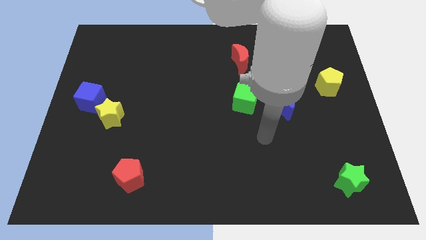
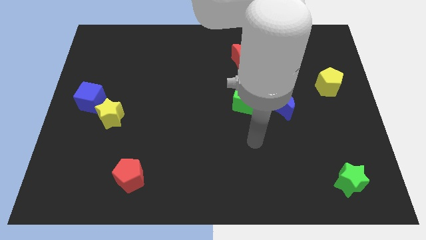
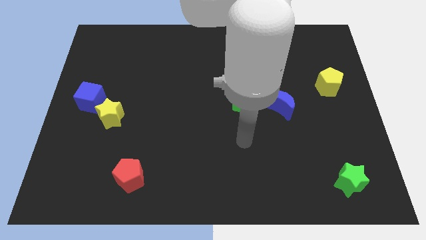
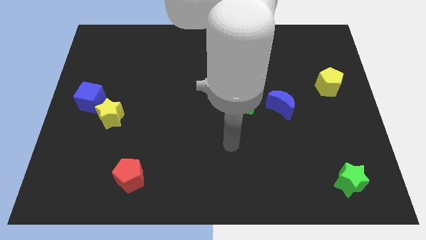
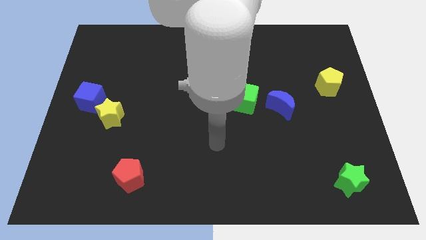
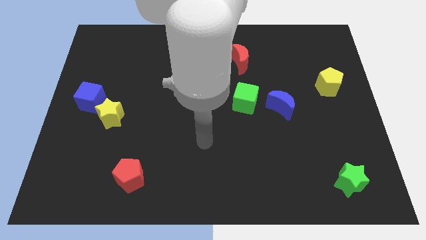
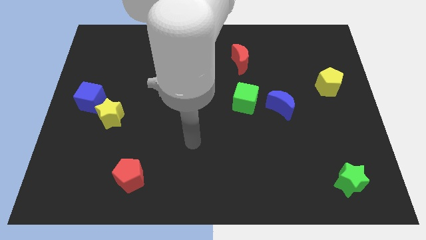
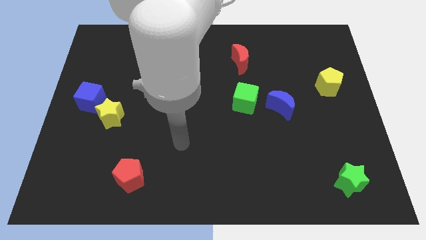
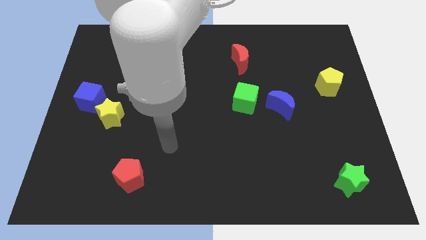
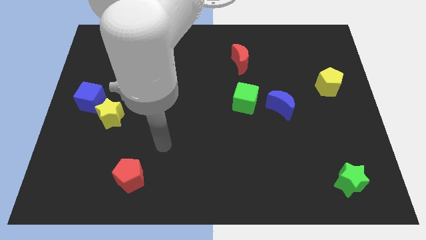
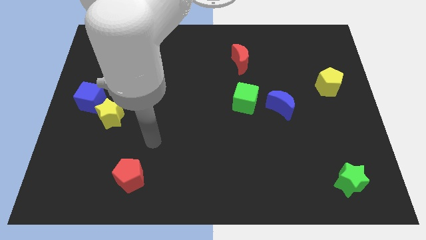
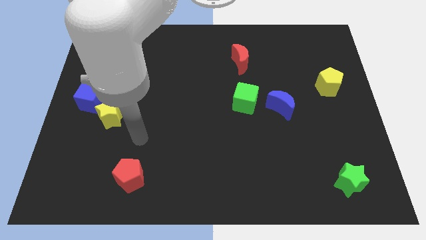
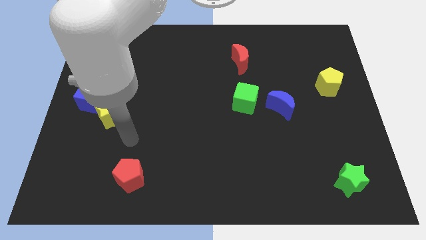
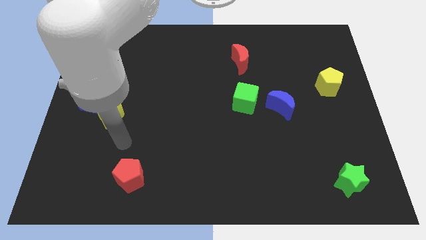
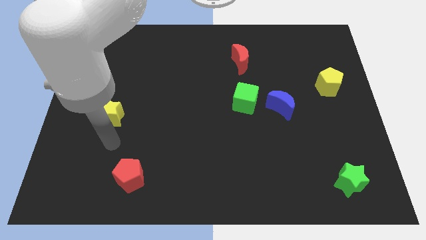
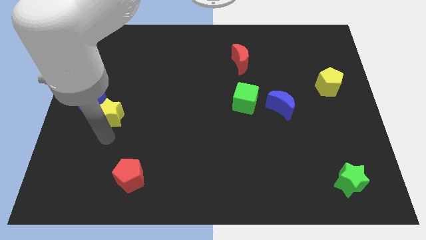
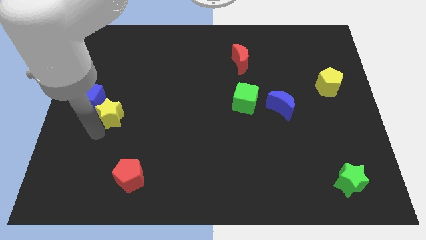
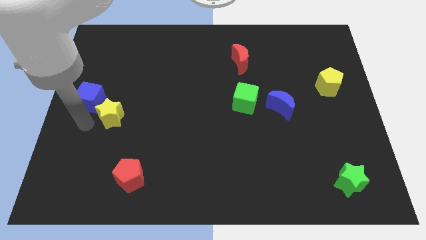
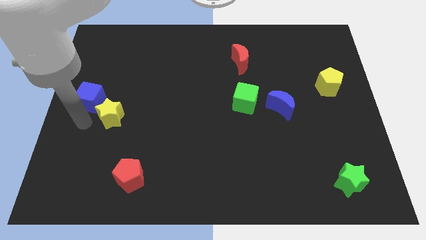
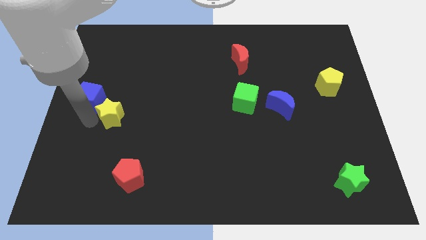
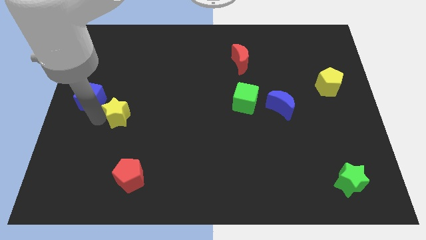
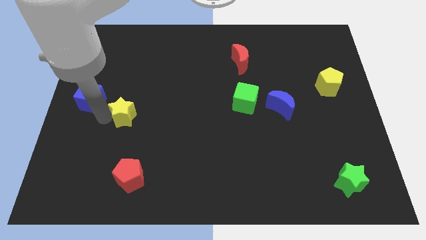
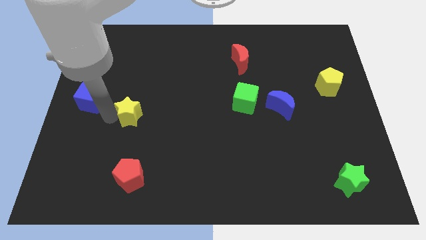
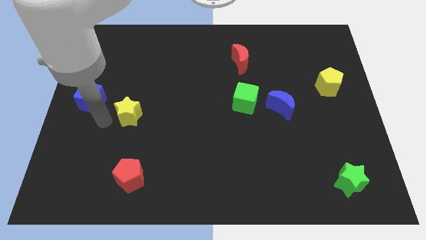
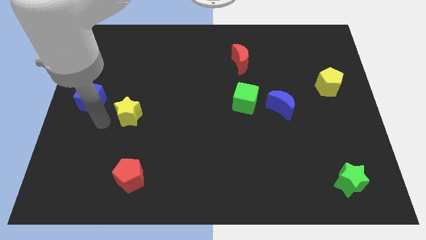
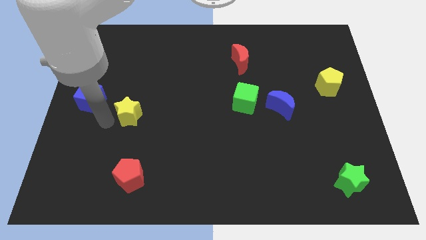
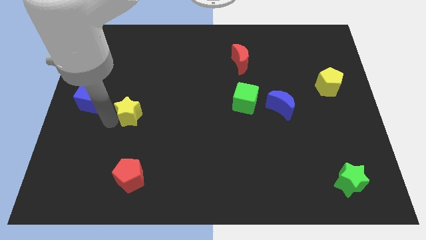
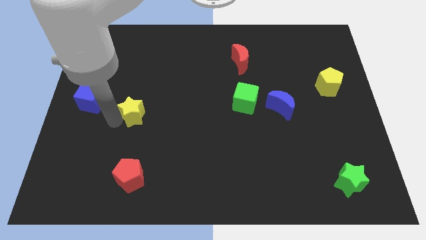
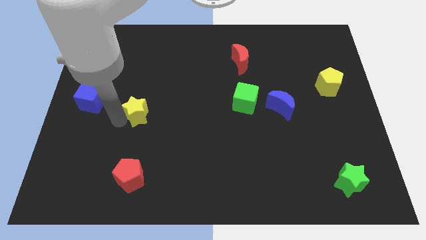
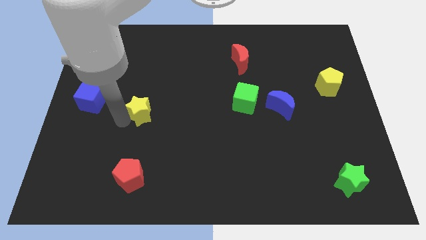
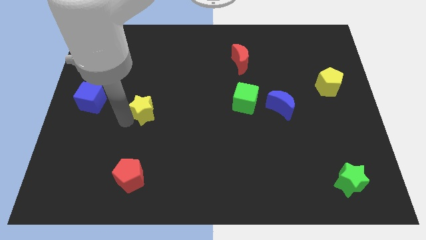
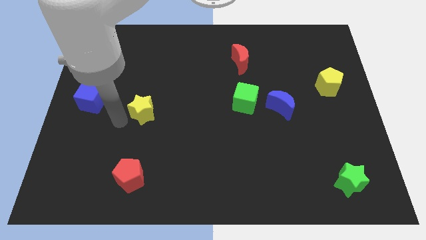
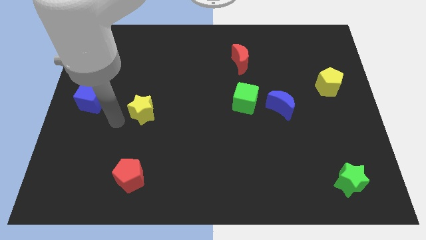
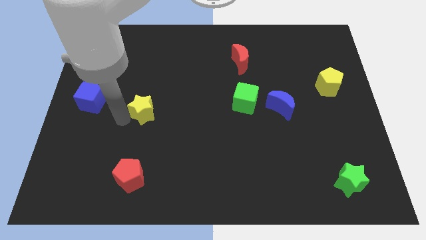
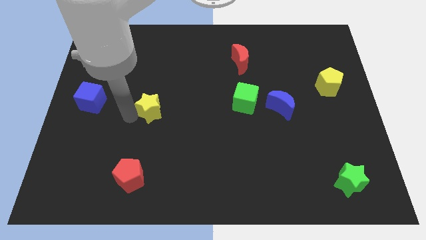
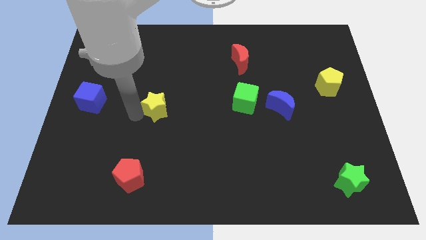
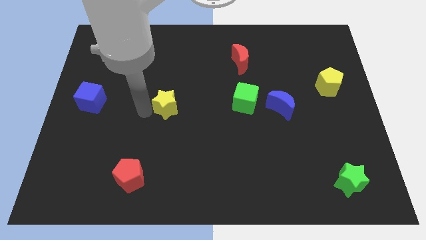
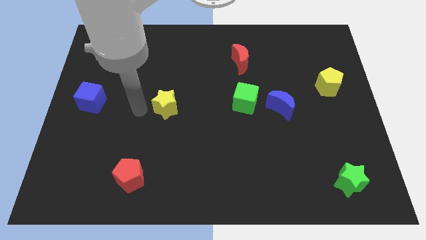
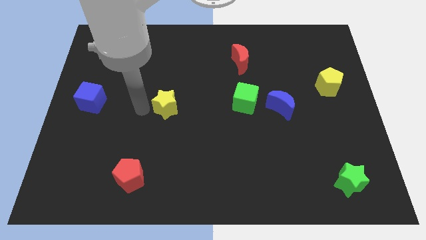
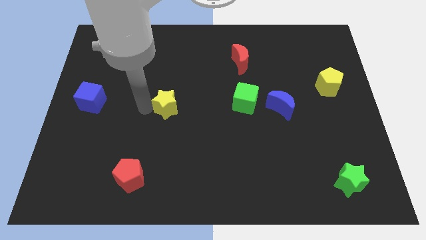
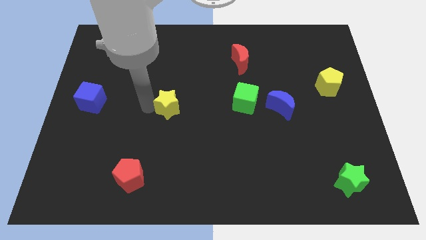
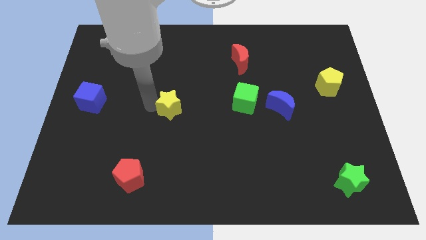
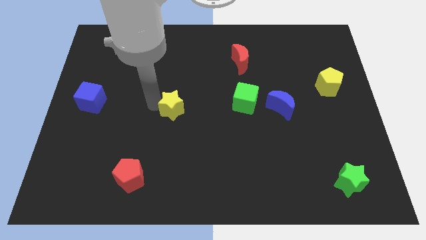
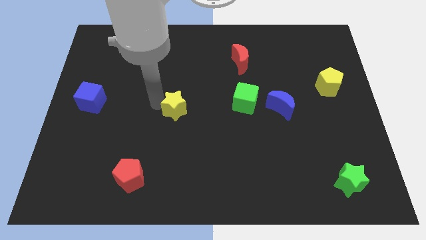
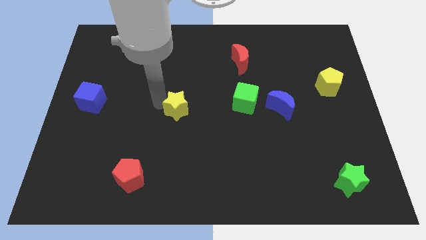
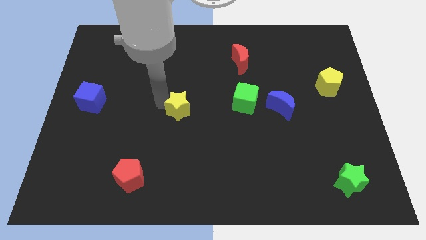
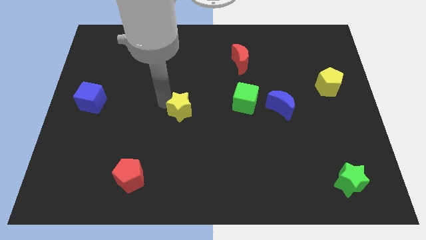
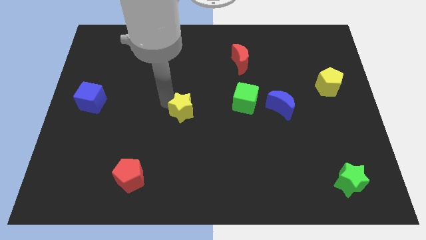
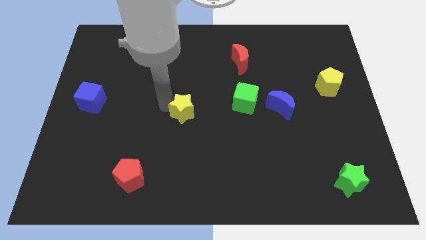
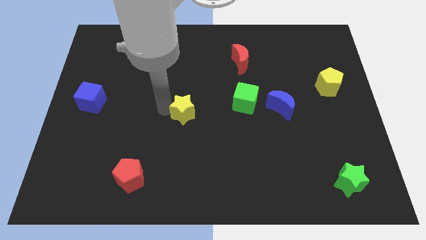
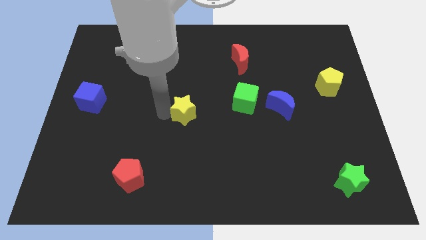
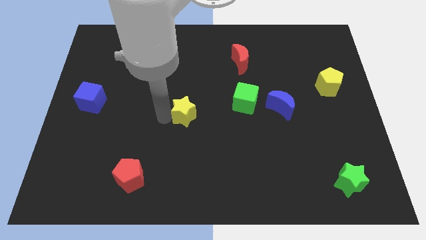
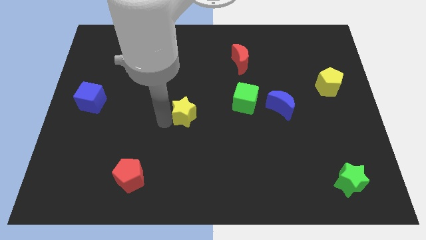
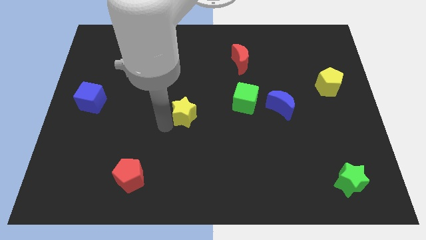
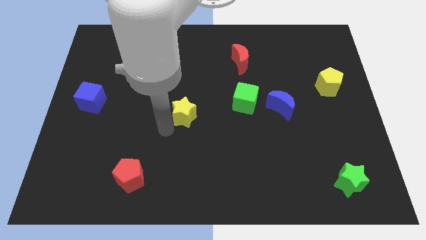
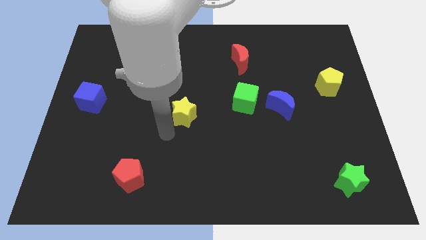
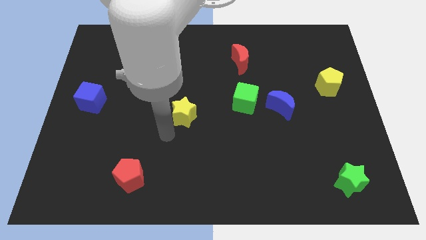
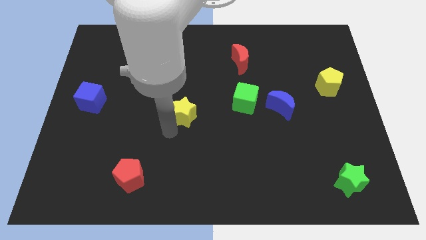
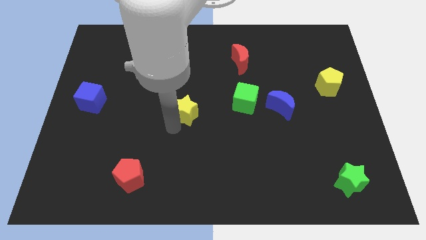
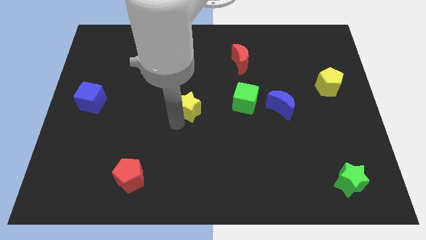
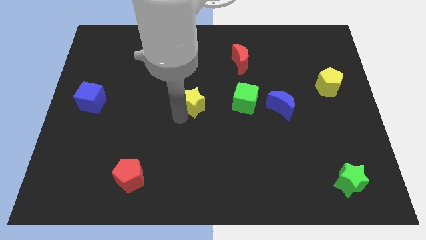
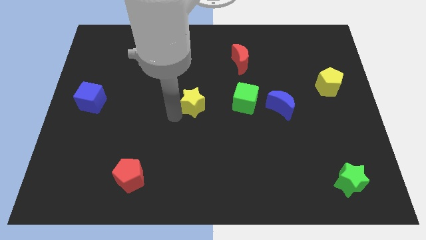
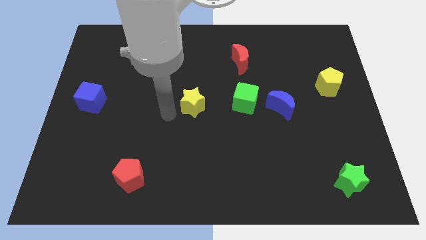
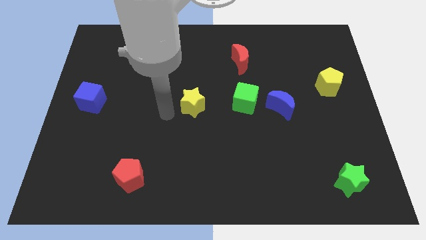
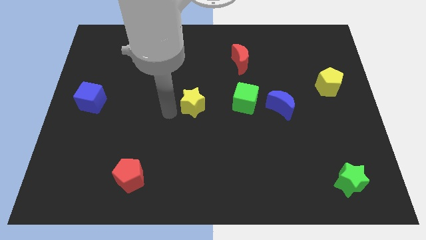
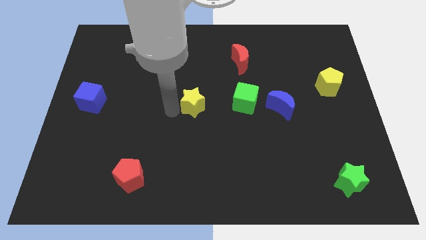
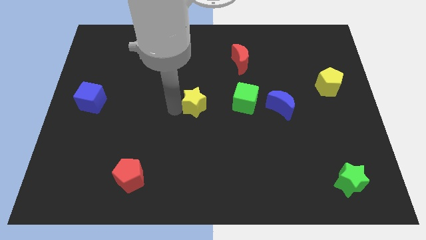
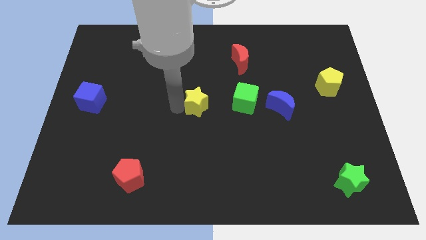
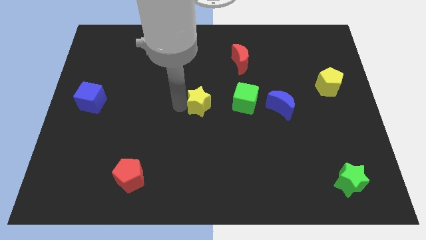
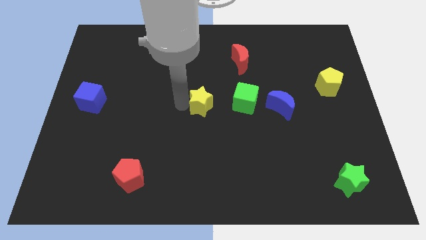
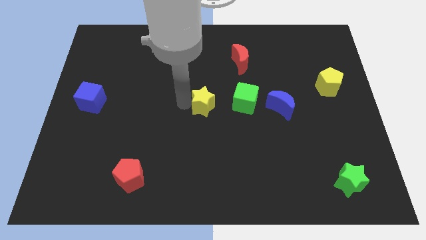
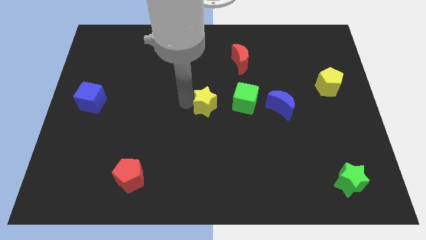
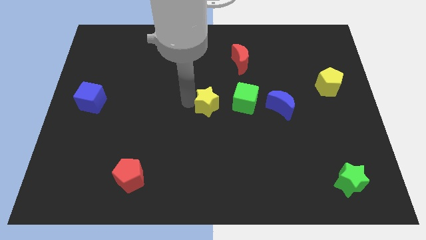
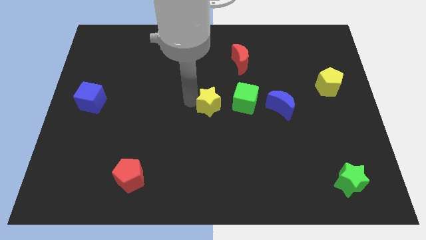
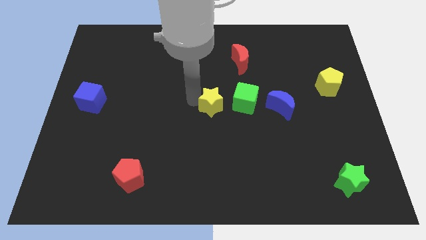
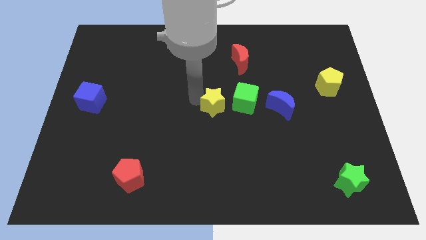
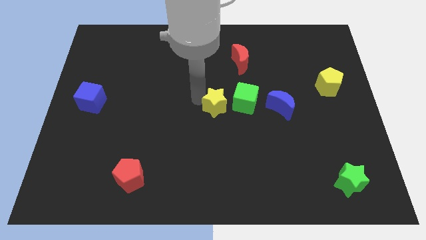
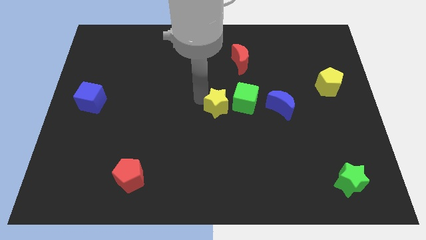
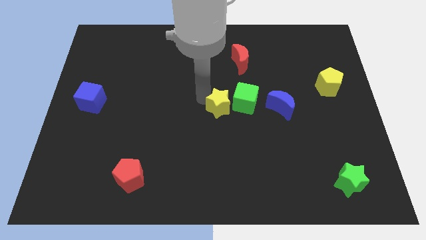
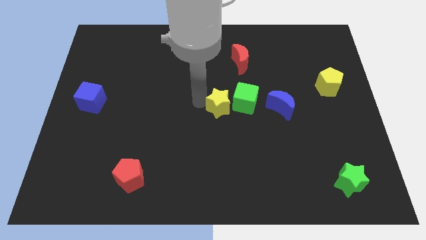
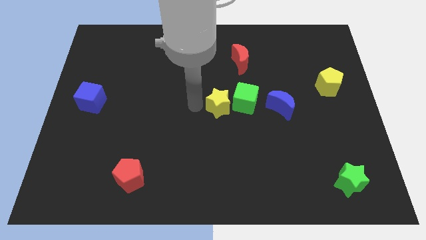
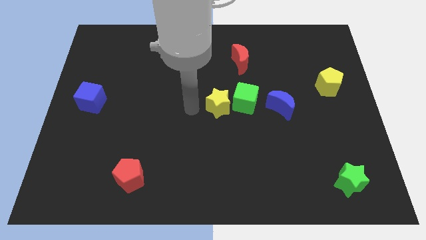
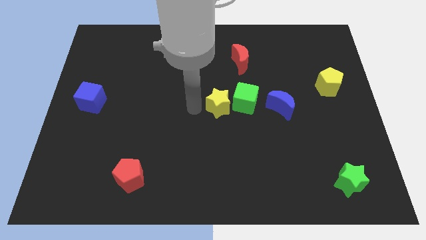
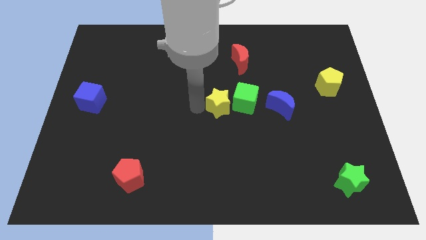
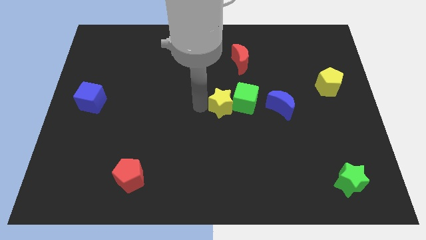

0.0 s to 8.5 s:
move the yellow star to the green cube
